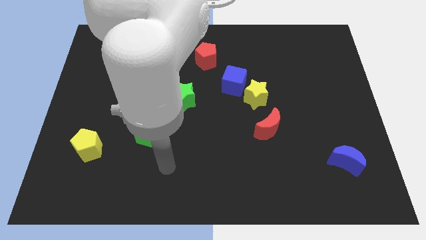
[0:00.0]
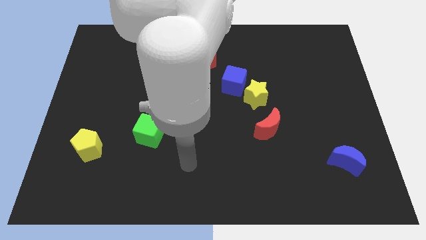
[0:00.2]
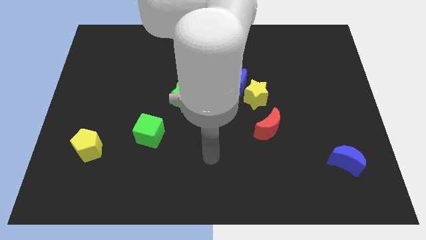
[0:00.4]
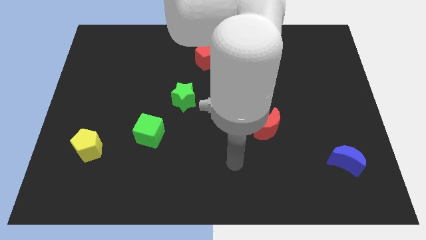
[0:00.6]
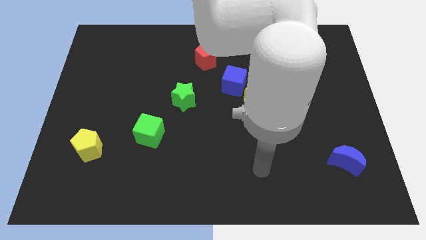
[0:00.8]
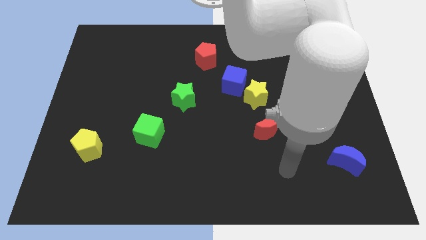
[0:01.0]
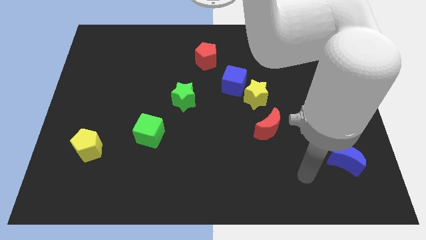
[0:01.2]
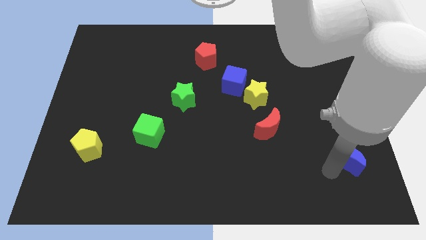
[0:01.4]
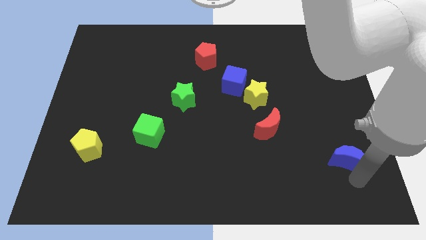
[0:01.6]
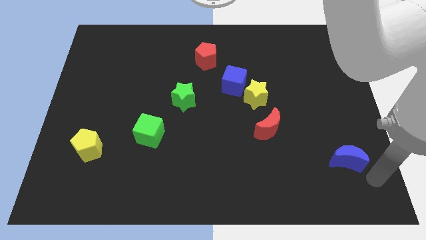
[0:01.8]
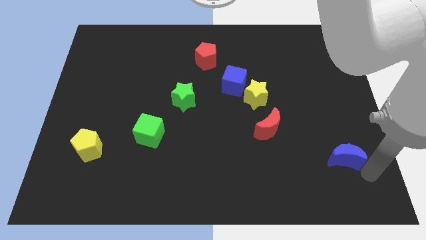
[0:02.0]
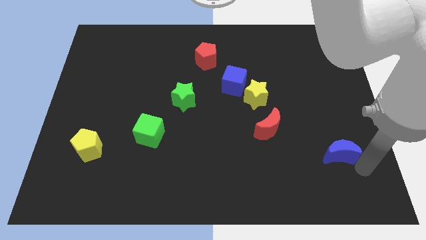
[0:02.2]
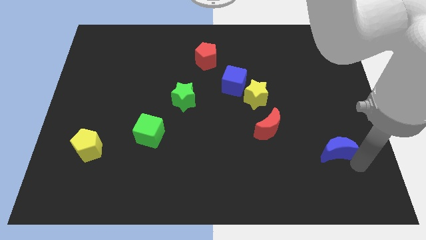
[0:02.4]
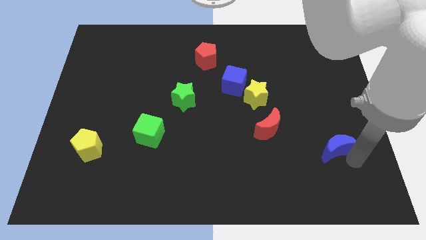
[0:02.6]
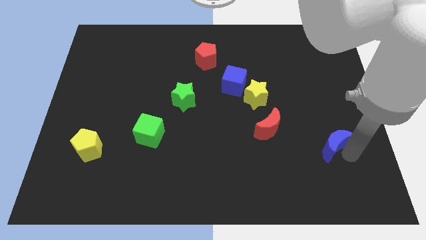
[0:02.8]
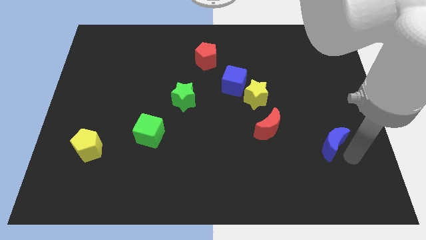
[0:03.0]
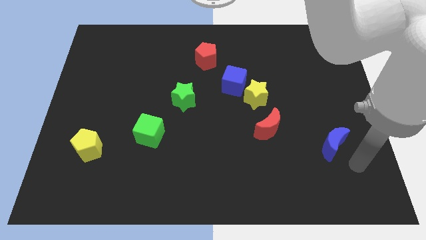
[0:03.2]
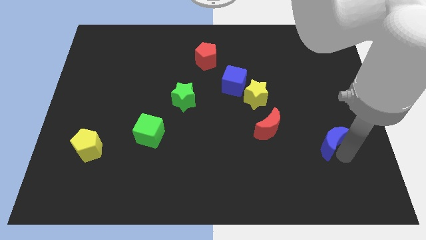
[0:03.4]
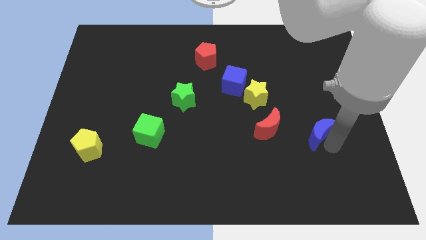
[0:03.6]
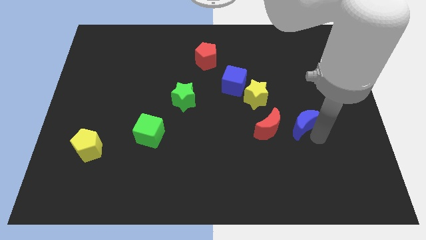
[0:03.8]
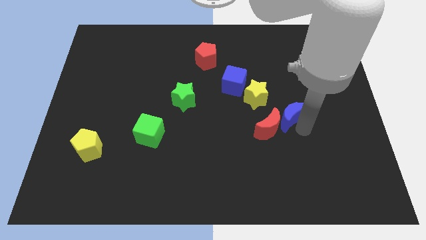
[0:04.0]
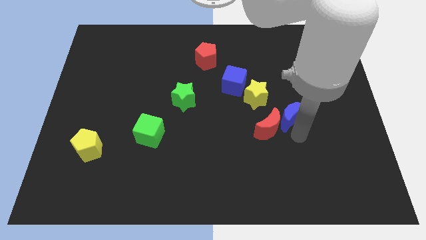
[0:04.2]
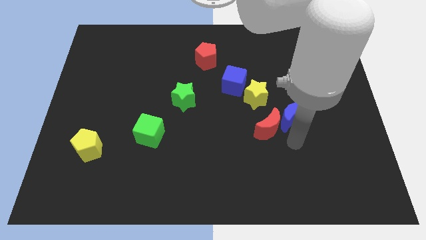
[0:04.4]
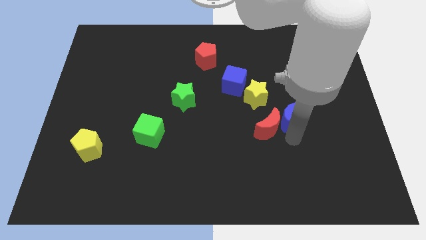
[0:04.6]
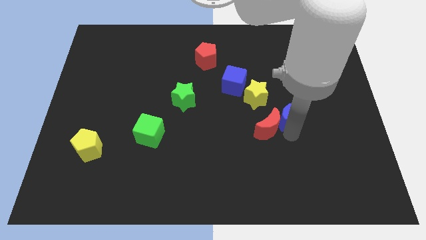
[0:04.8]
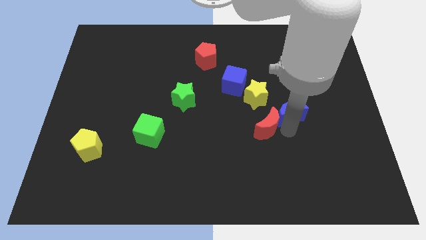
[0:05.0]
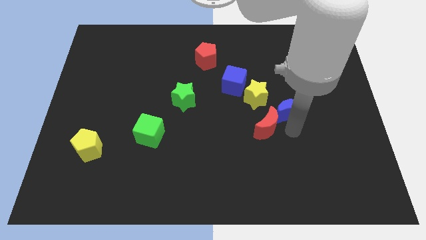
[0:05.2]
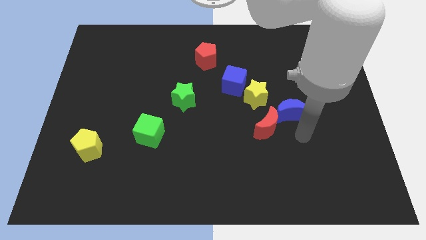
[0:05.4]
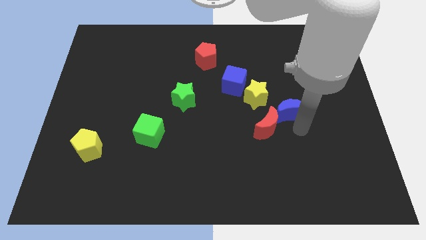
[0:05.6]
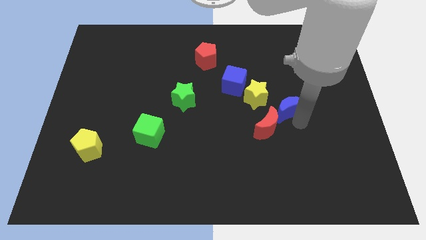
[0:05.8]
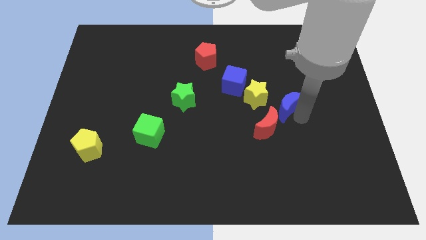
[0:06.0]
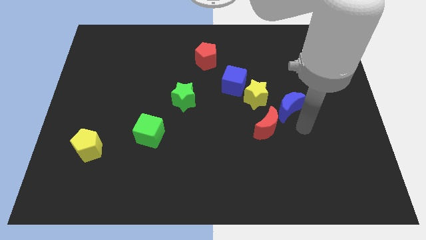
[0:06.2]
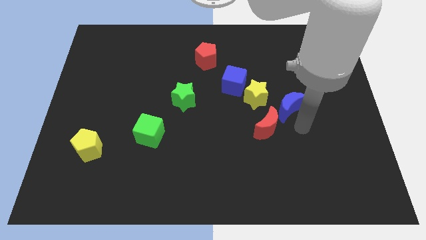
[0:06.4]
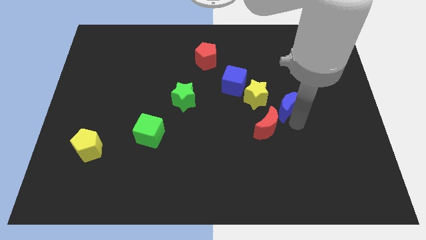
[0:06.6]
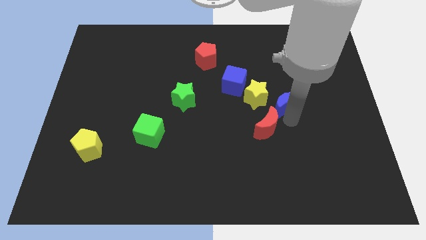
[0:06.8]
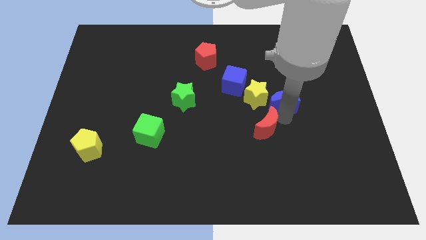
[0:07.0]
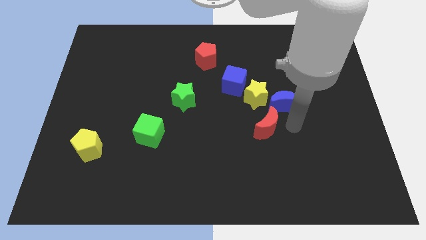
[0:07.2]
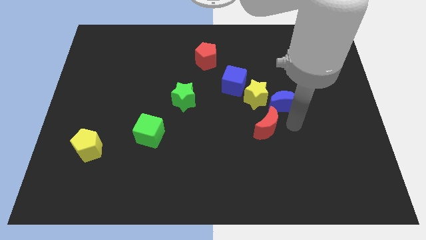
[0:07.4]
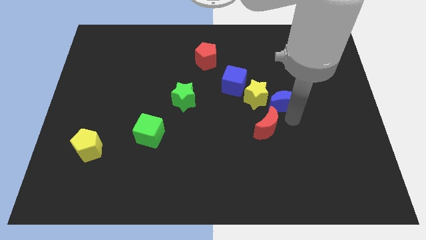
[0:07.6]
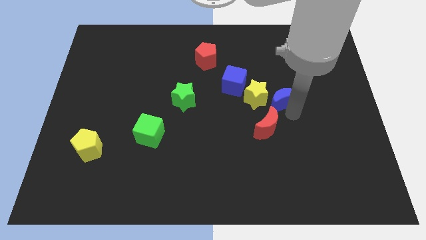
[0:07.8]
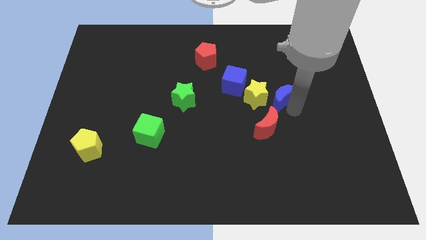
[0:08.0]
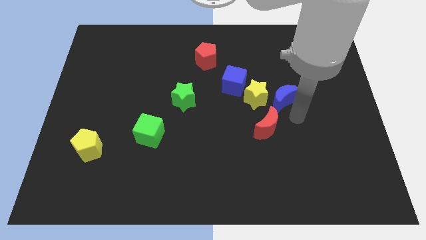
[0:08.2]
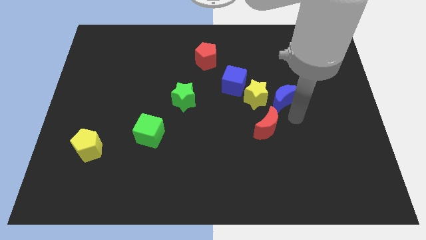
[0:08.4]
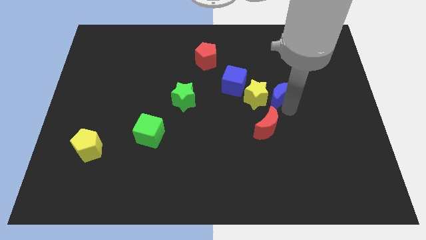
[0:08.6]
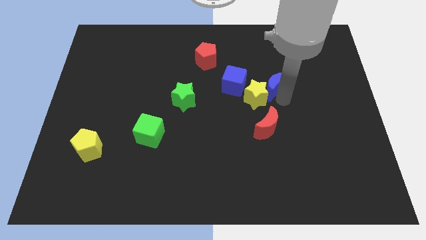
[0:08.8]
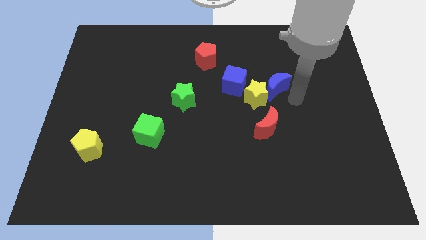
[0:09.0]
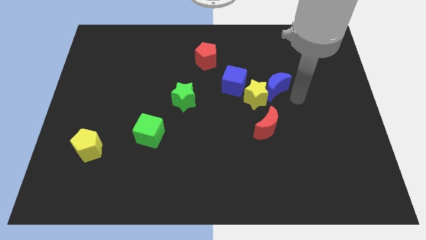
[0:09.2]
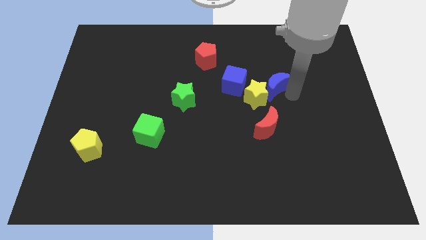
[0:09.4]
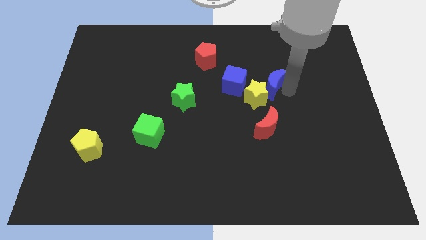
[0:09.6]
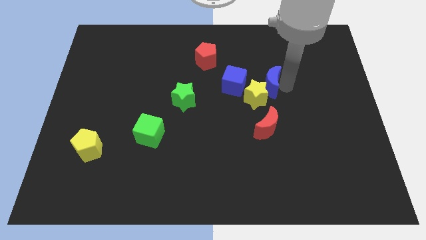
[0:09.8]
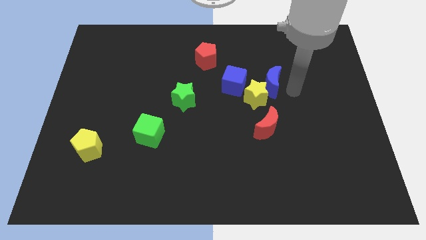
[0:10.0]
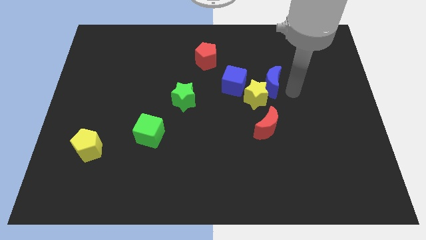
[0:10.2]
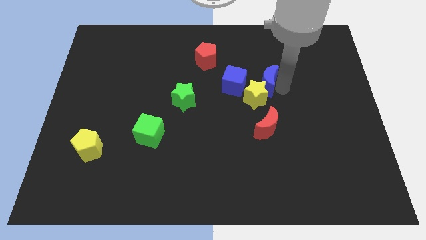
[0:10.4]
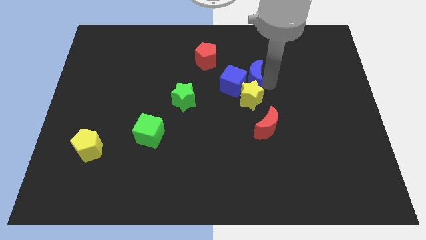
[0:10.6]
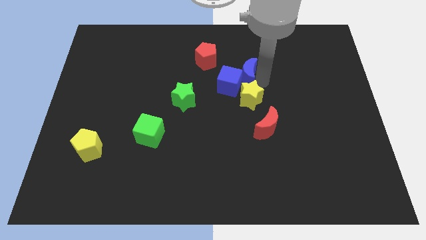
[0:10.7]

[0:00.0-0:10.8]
move the blue moon diagonally up and to the left of the yellow star

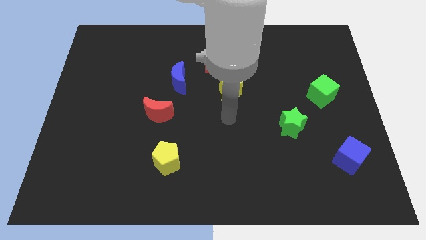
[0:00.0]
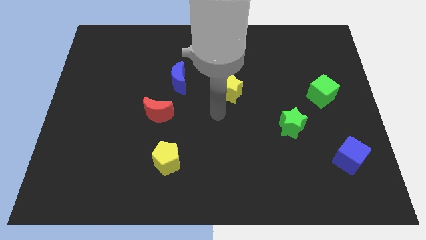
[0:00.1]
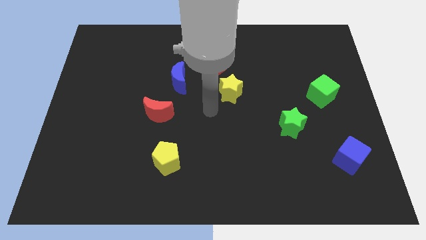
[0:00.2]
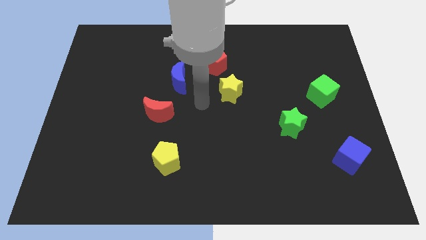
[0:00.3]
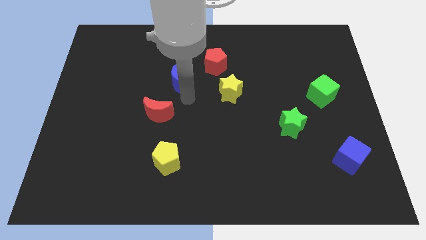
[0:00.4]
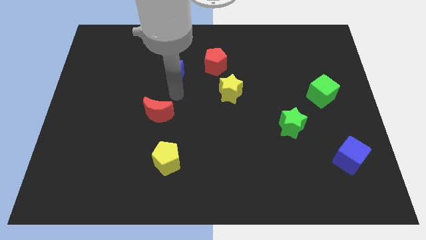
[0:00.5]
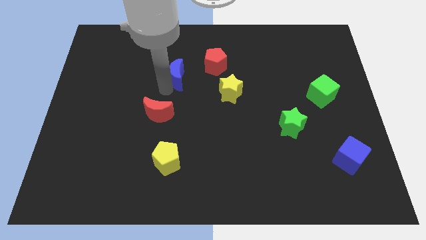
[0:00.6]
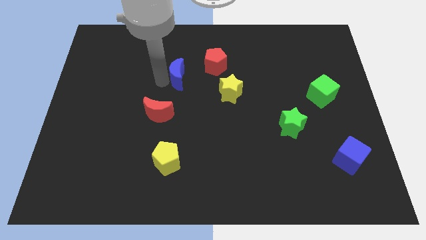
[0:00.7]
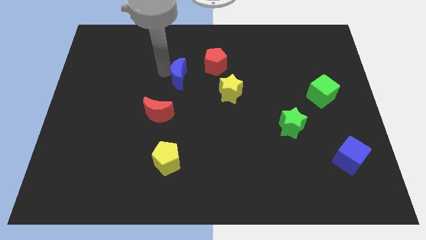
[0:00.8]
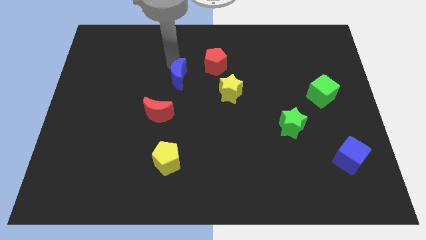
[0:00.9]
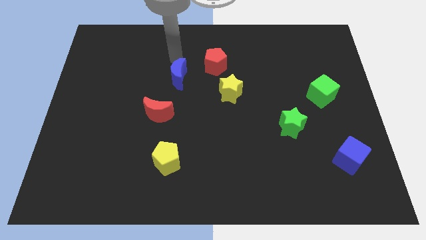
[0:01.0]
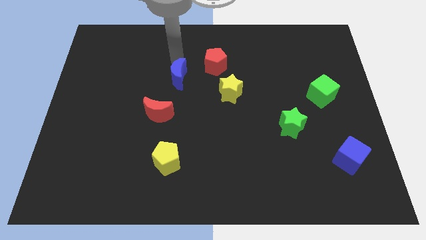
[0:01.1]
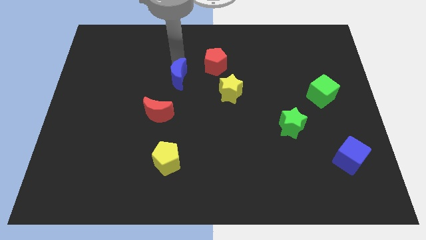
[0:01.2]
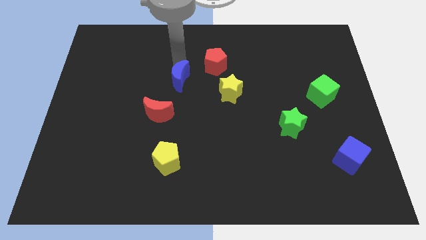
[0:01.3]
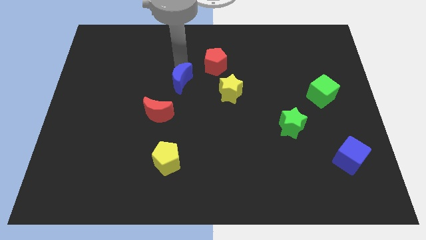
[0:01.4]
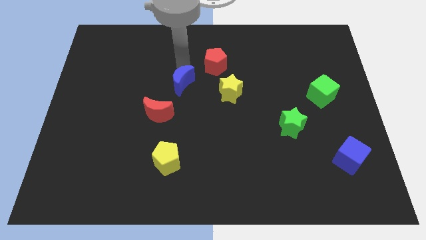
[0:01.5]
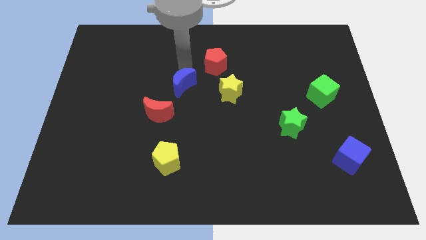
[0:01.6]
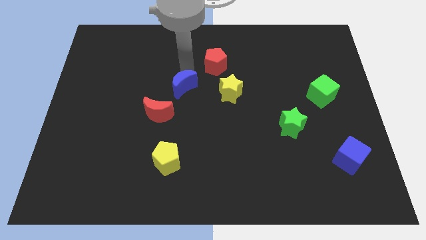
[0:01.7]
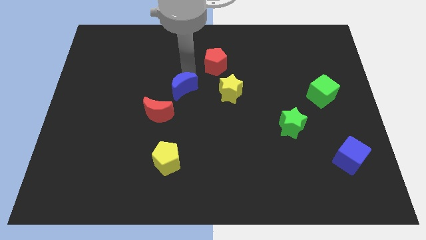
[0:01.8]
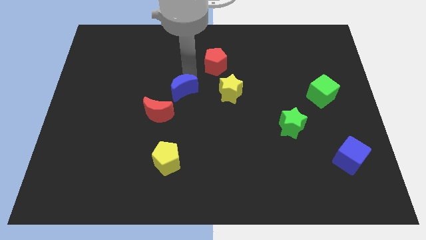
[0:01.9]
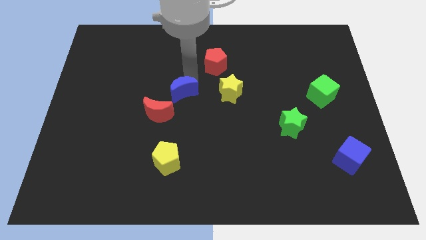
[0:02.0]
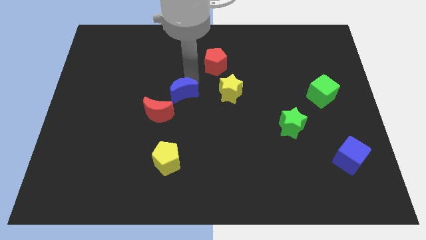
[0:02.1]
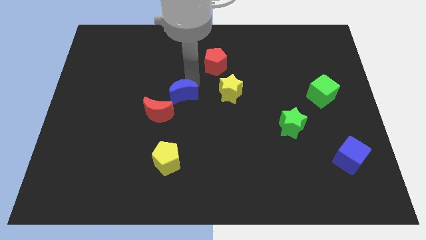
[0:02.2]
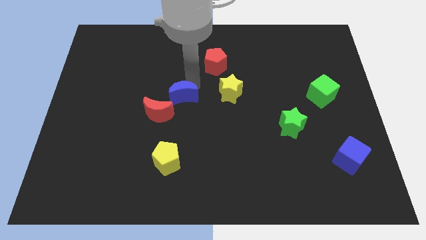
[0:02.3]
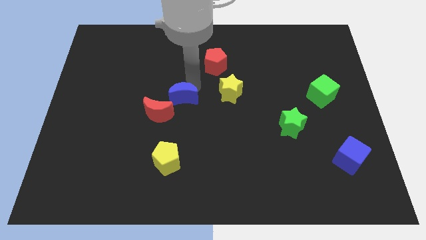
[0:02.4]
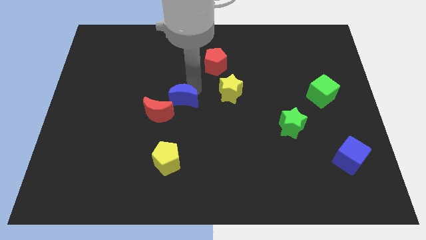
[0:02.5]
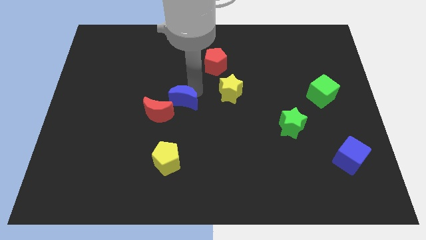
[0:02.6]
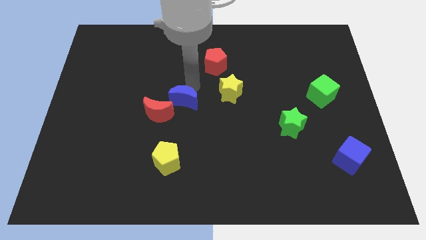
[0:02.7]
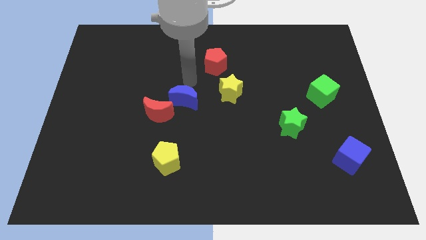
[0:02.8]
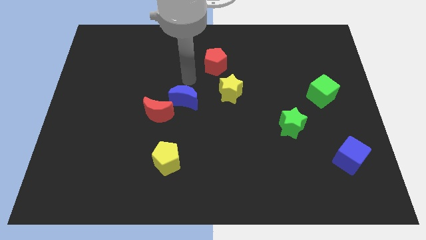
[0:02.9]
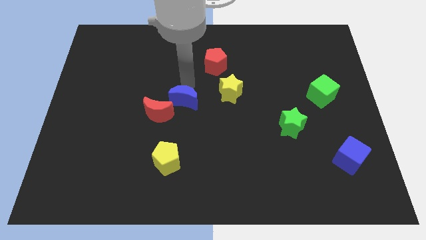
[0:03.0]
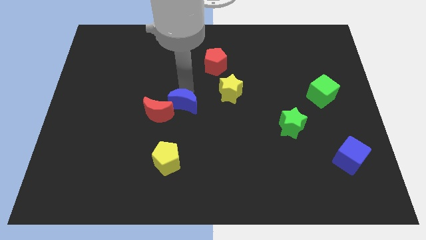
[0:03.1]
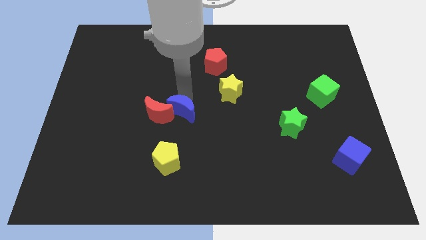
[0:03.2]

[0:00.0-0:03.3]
put the blue moon to the bottom right side of the red moon
